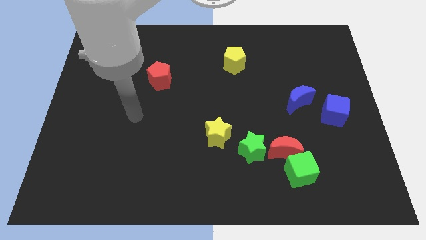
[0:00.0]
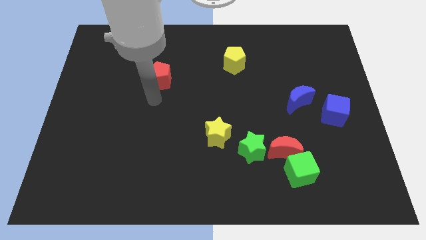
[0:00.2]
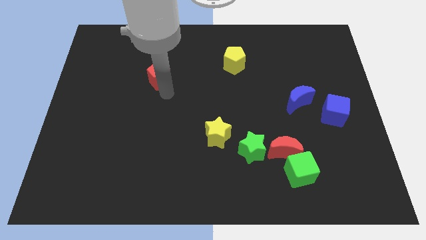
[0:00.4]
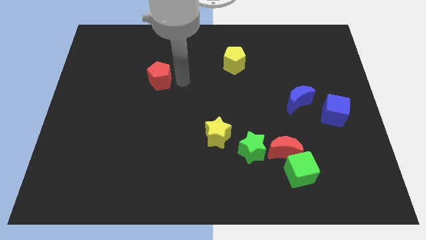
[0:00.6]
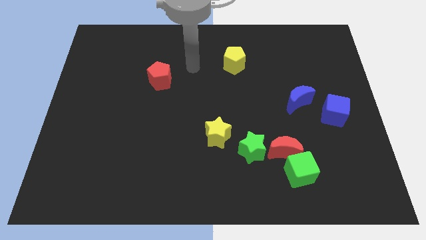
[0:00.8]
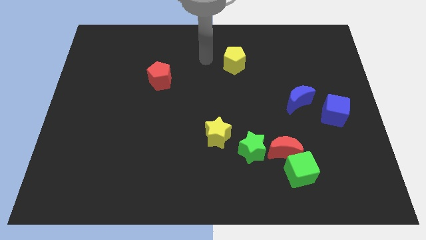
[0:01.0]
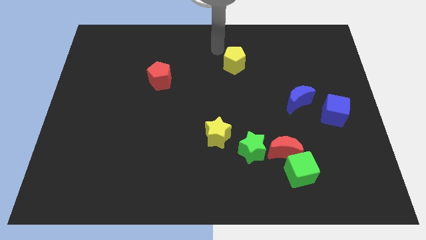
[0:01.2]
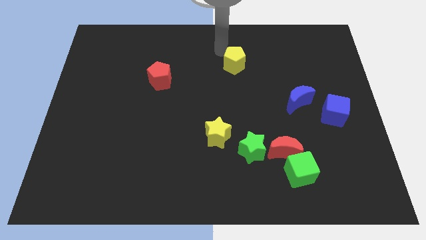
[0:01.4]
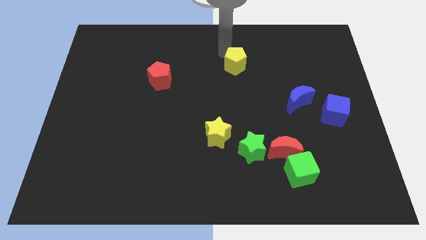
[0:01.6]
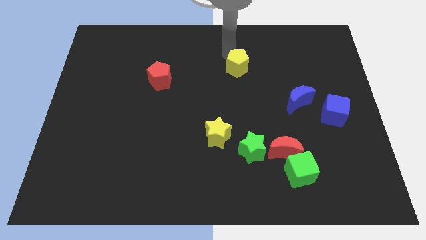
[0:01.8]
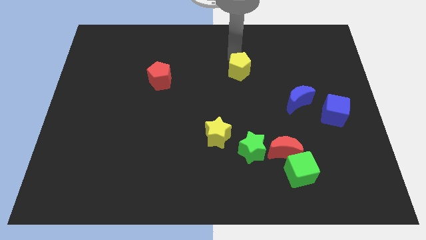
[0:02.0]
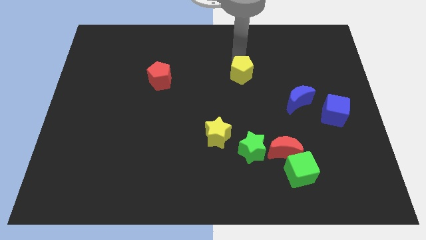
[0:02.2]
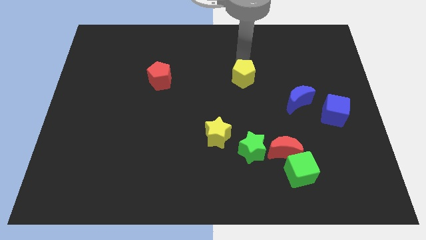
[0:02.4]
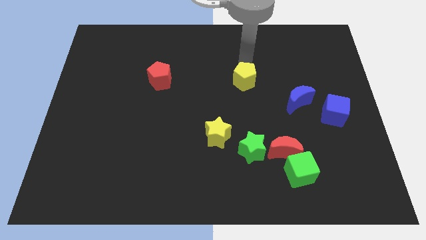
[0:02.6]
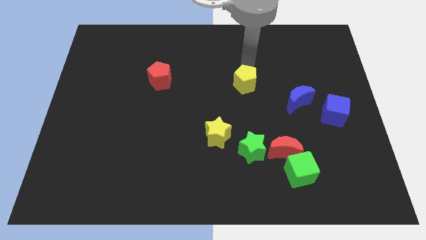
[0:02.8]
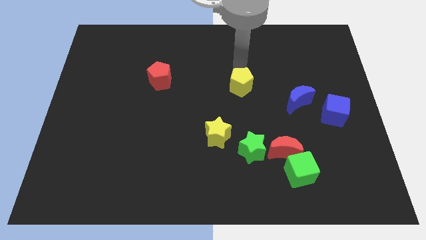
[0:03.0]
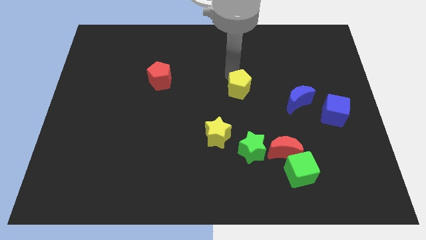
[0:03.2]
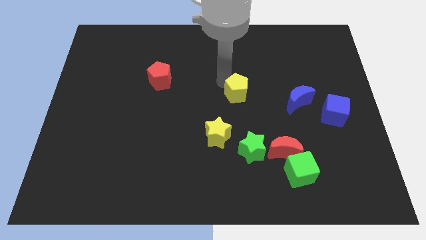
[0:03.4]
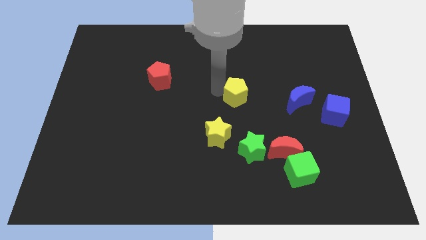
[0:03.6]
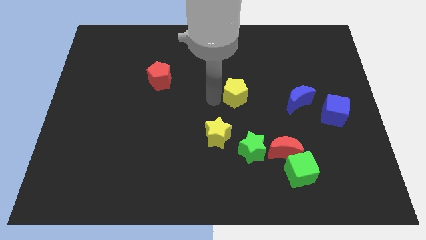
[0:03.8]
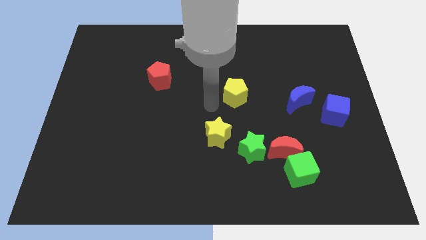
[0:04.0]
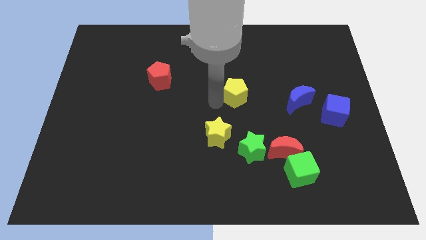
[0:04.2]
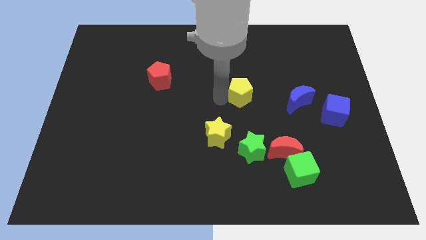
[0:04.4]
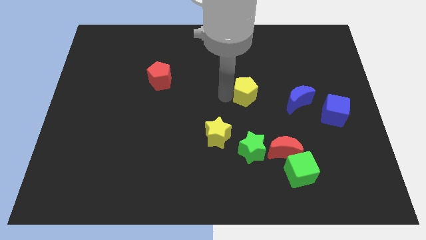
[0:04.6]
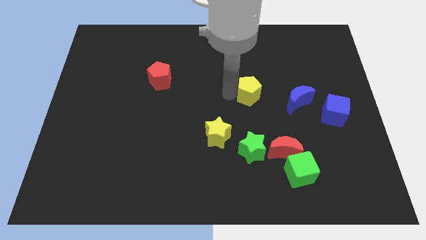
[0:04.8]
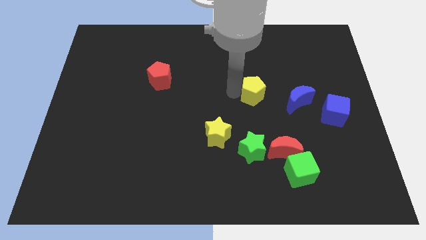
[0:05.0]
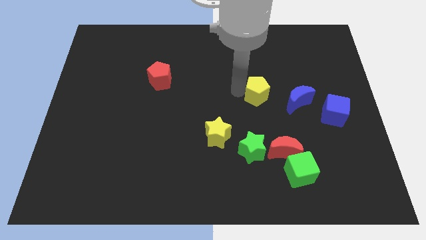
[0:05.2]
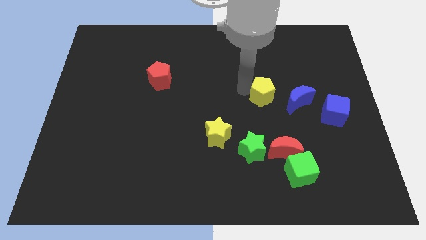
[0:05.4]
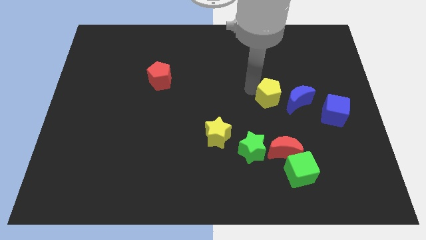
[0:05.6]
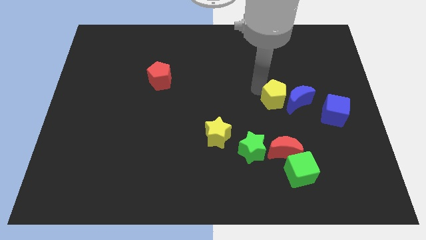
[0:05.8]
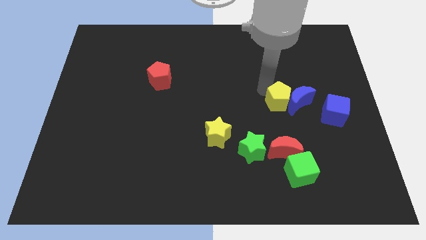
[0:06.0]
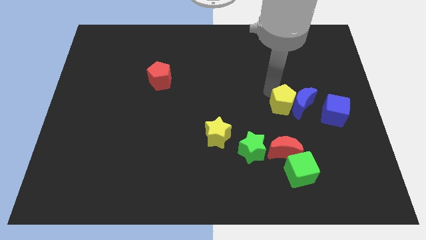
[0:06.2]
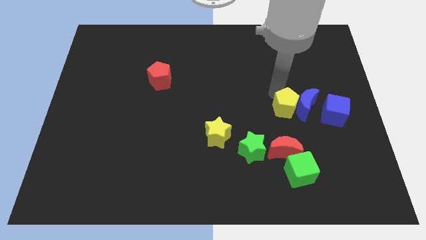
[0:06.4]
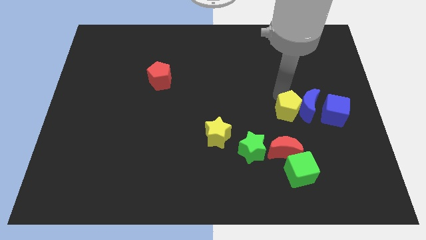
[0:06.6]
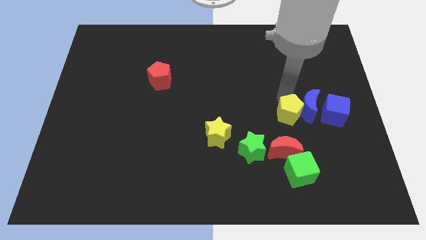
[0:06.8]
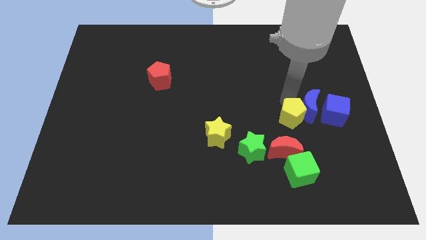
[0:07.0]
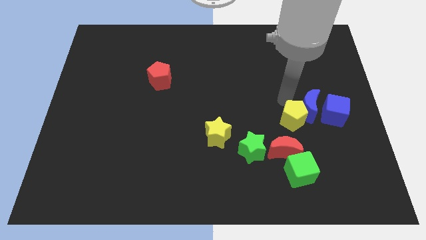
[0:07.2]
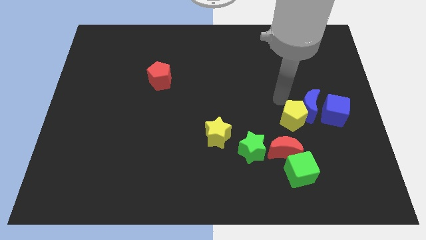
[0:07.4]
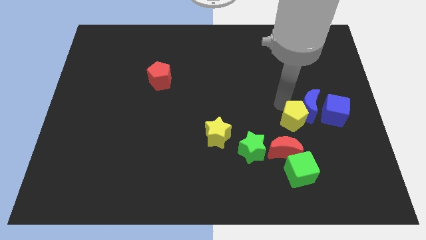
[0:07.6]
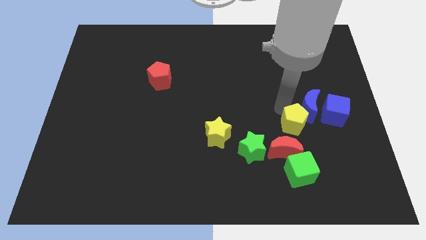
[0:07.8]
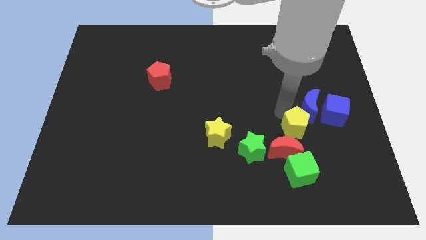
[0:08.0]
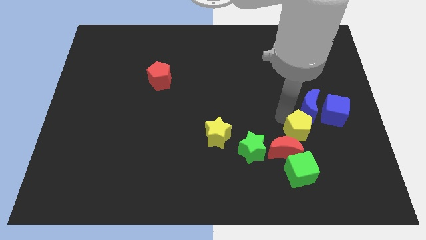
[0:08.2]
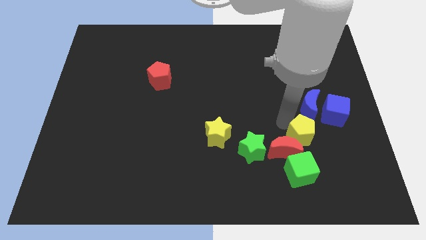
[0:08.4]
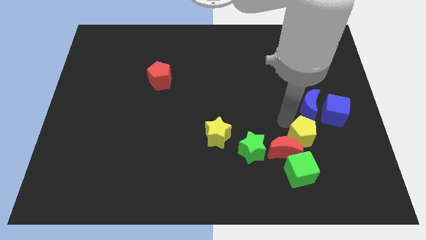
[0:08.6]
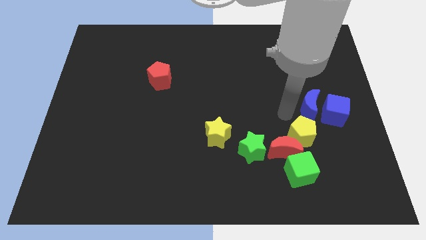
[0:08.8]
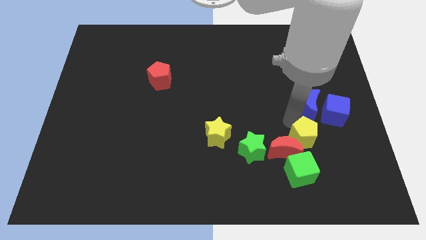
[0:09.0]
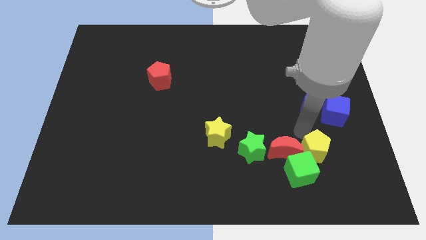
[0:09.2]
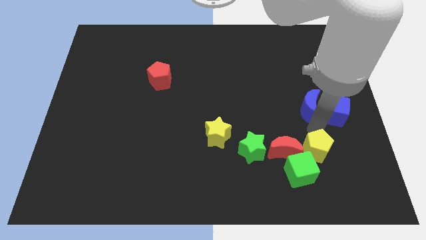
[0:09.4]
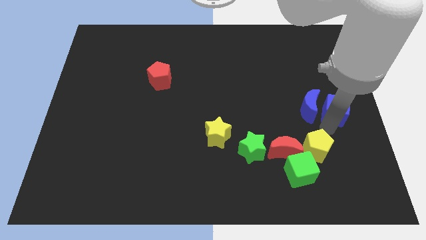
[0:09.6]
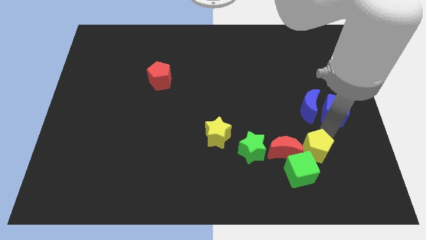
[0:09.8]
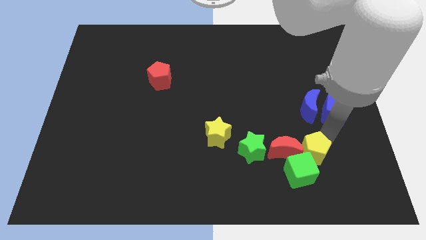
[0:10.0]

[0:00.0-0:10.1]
put the yellow pentagon close to the green cube

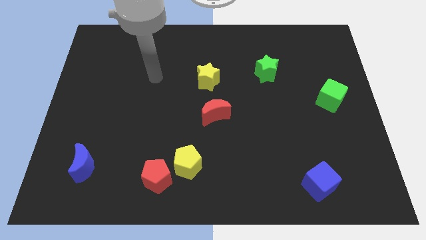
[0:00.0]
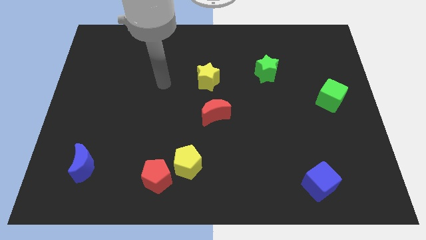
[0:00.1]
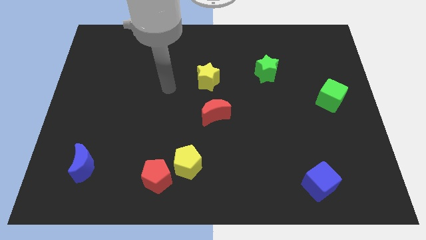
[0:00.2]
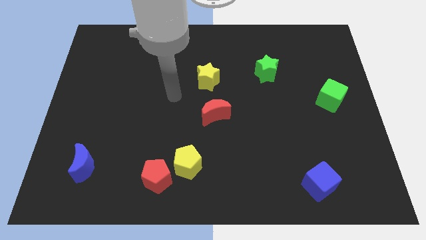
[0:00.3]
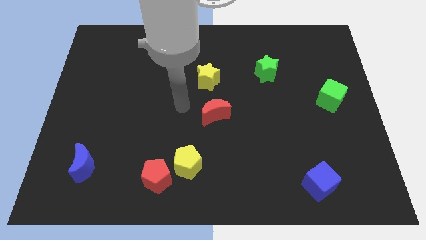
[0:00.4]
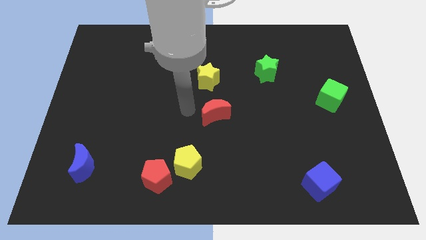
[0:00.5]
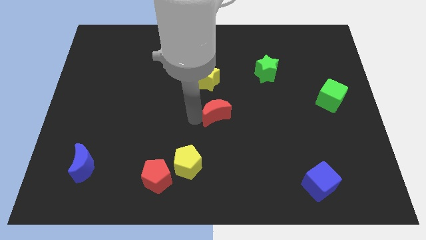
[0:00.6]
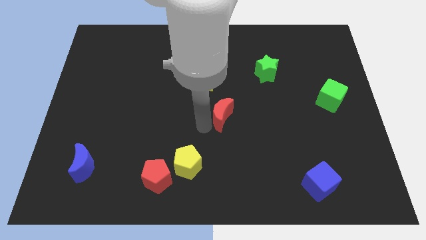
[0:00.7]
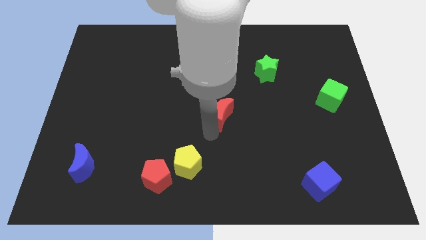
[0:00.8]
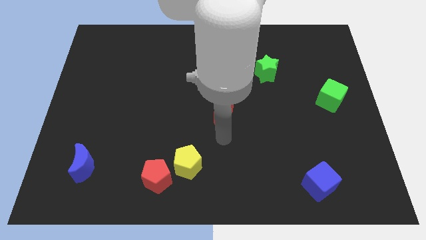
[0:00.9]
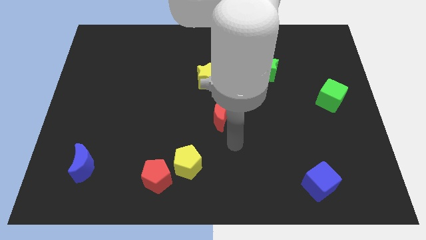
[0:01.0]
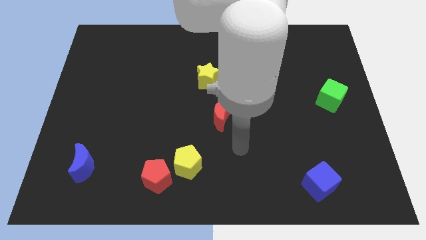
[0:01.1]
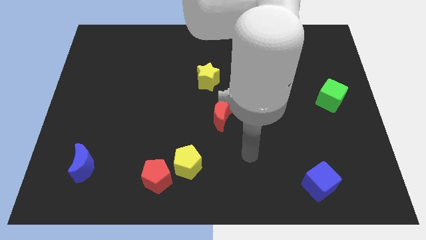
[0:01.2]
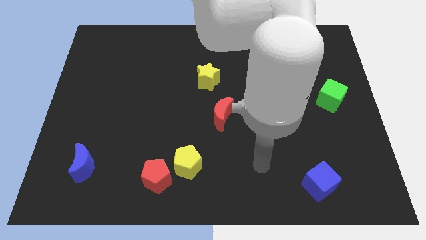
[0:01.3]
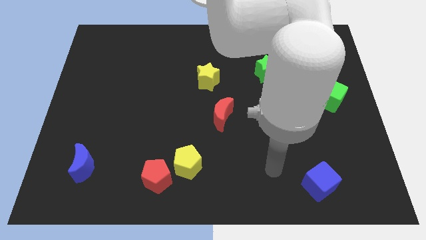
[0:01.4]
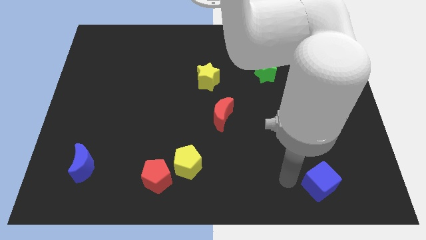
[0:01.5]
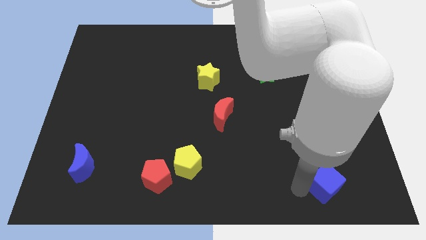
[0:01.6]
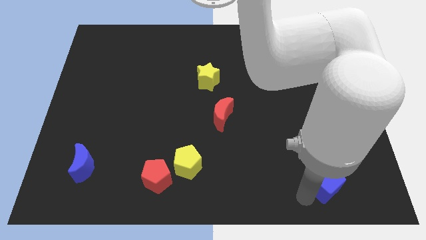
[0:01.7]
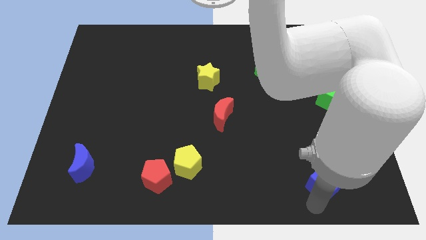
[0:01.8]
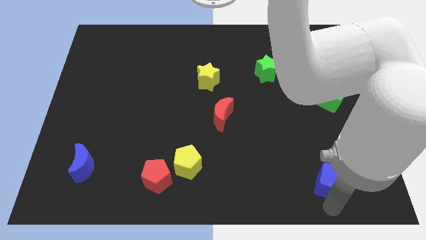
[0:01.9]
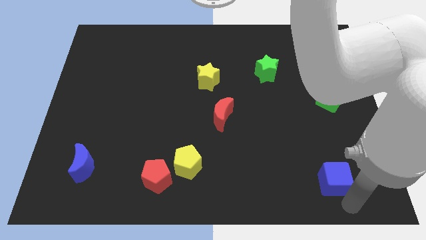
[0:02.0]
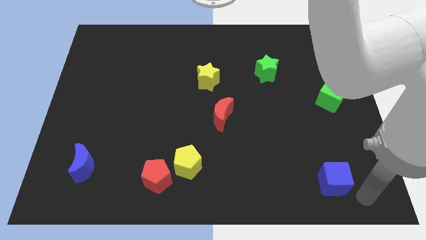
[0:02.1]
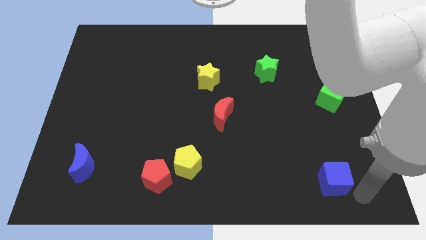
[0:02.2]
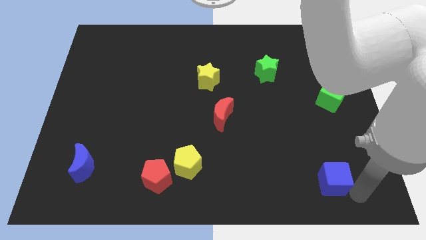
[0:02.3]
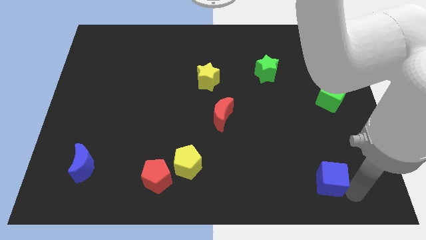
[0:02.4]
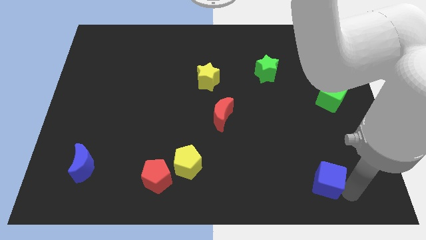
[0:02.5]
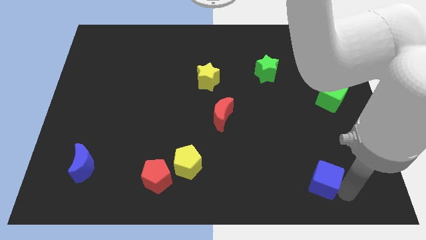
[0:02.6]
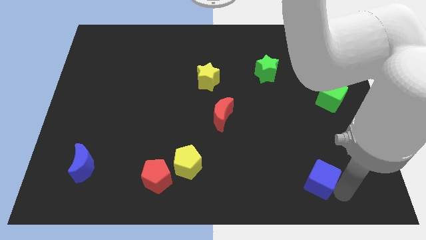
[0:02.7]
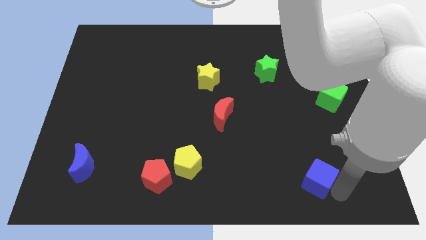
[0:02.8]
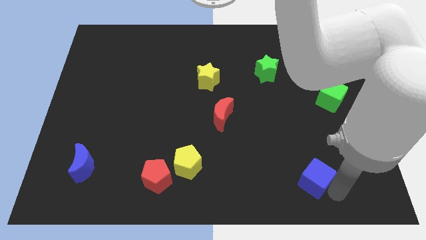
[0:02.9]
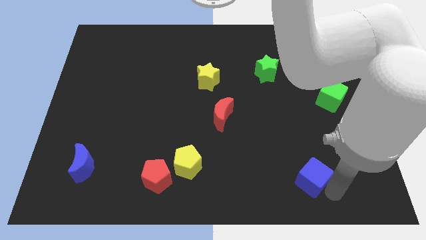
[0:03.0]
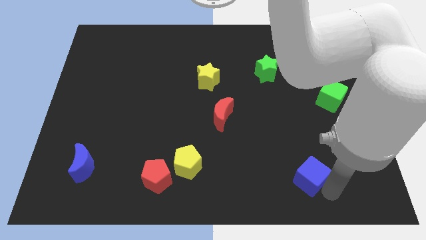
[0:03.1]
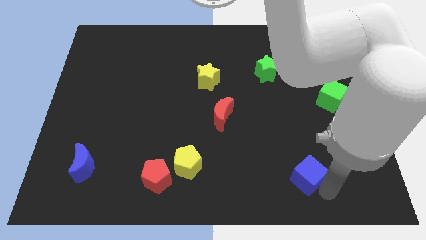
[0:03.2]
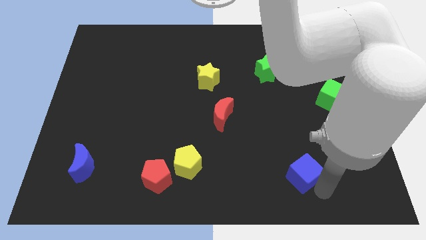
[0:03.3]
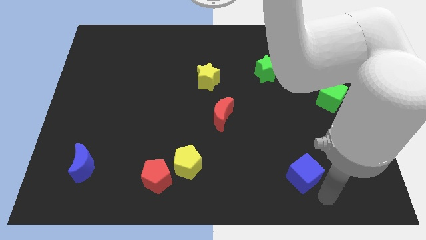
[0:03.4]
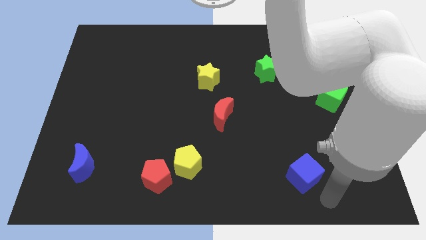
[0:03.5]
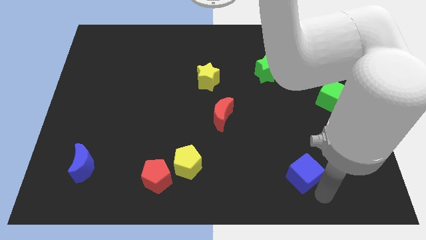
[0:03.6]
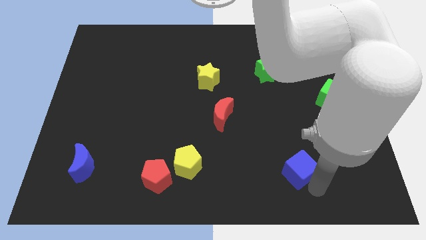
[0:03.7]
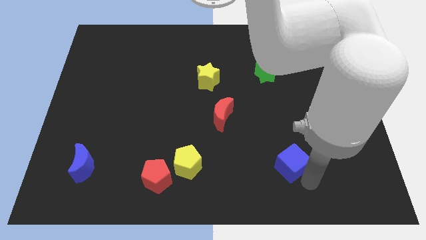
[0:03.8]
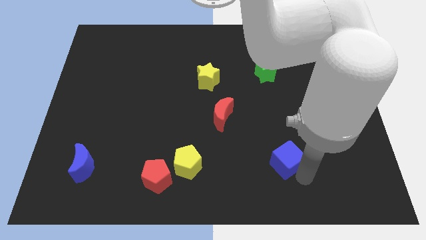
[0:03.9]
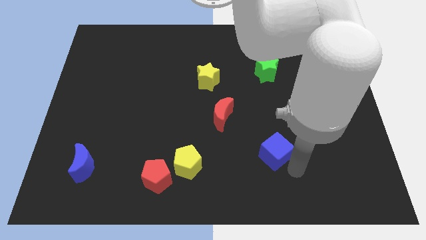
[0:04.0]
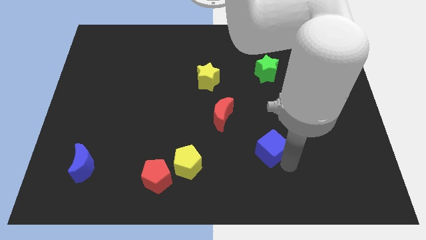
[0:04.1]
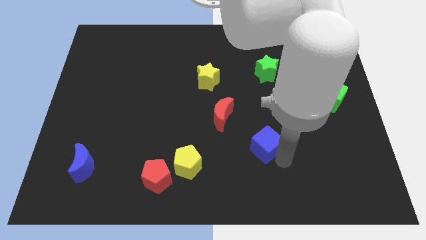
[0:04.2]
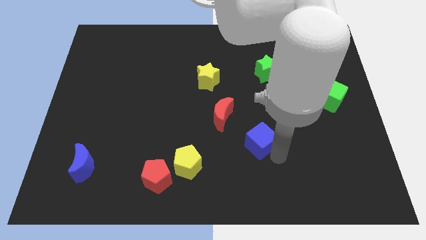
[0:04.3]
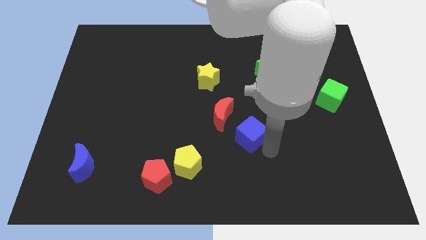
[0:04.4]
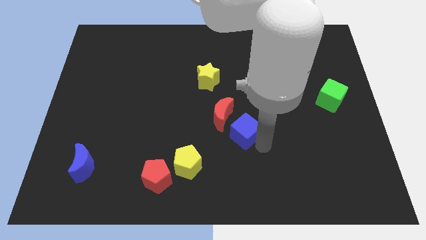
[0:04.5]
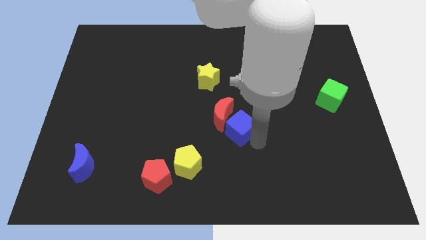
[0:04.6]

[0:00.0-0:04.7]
push the blue cube close to the red moon
